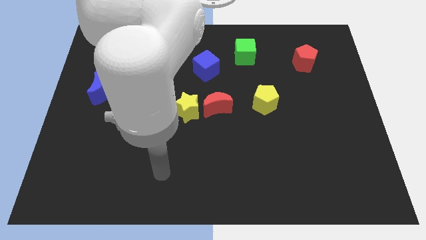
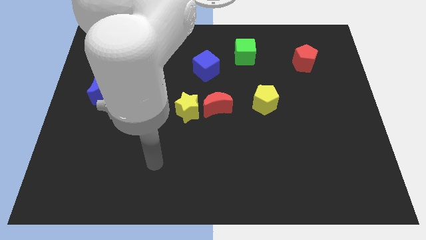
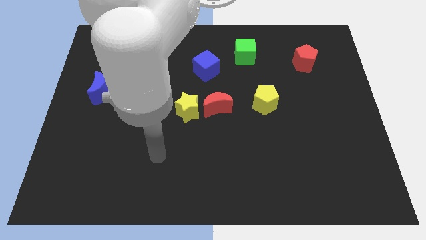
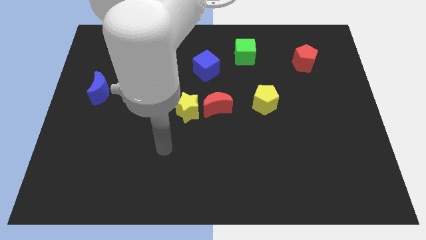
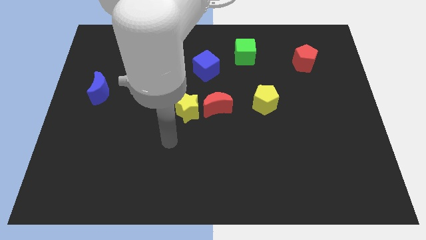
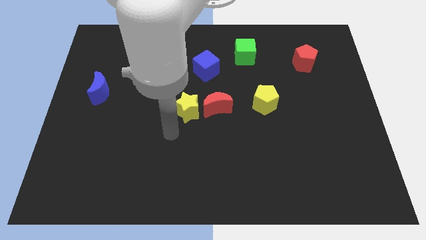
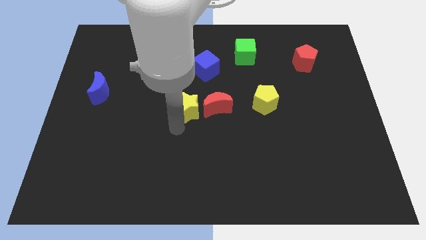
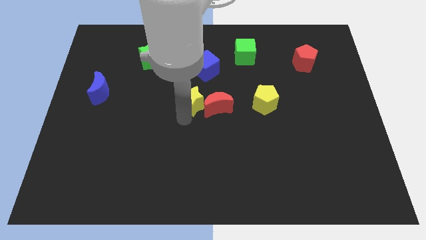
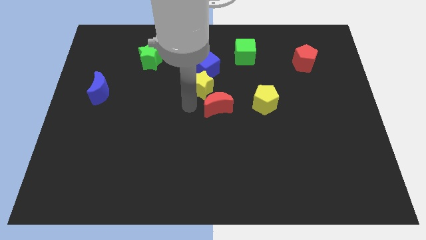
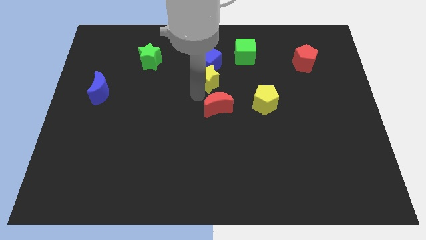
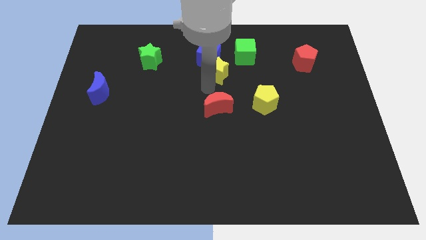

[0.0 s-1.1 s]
move the red moon away from the yellow star

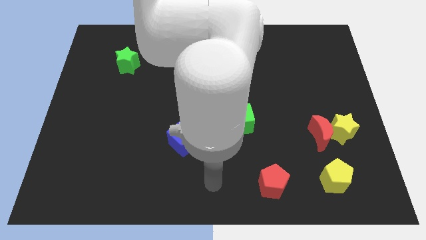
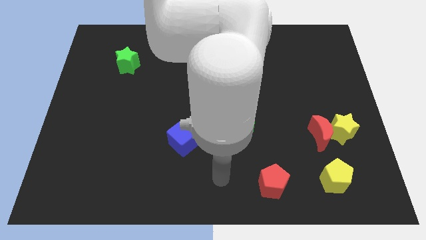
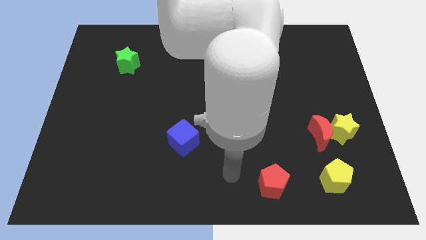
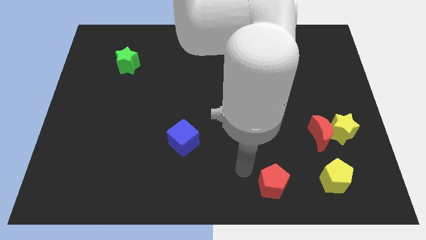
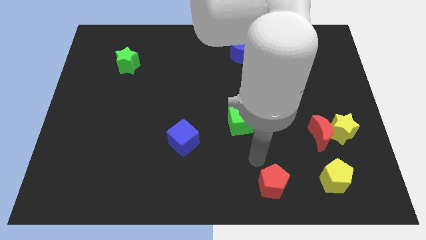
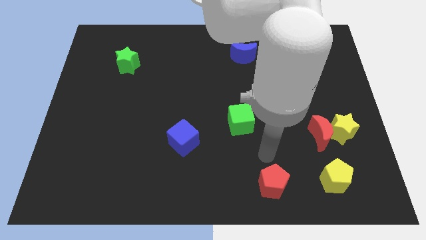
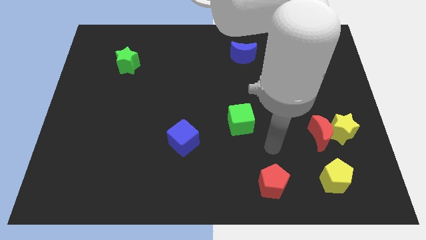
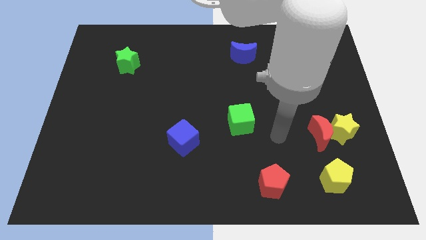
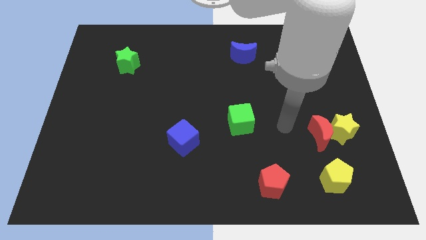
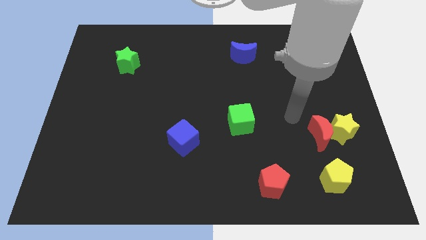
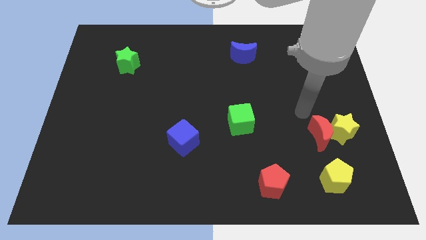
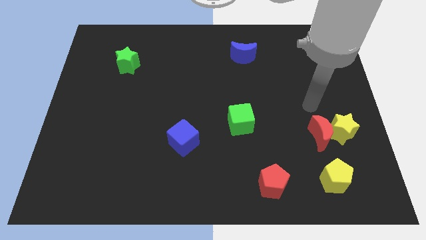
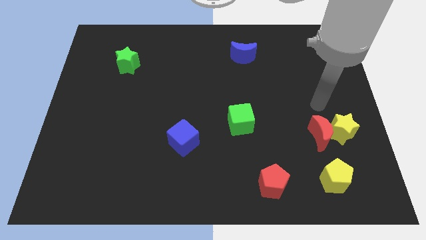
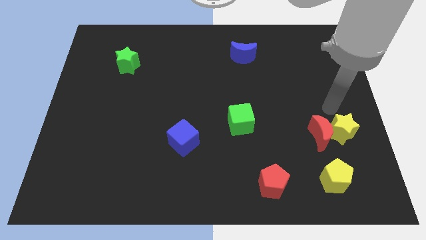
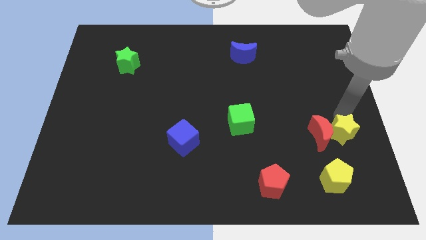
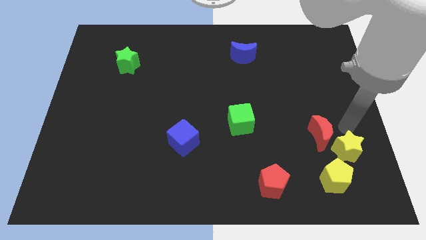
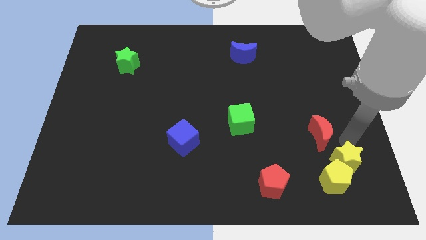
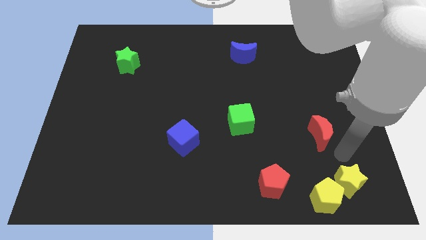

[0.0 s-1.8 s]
pull the red moon apart from the yellow star

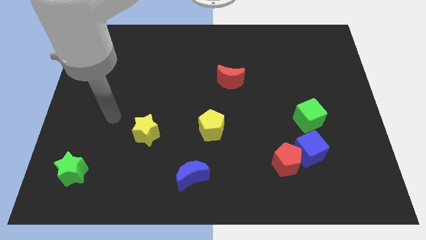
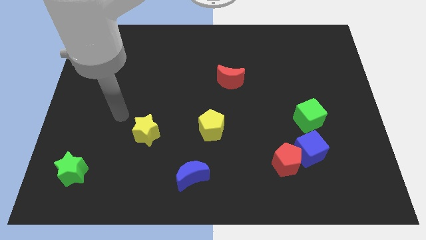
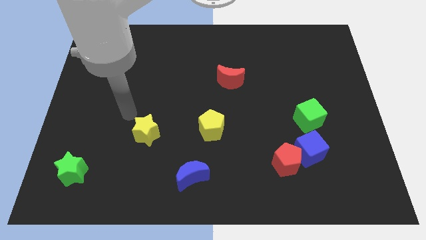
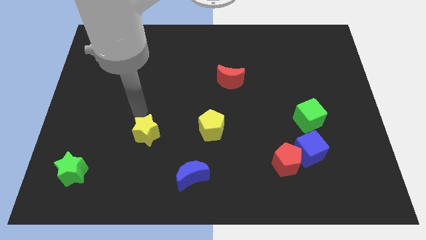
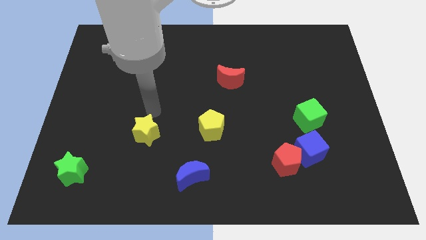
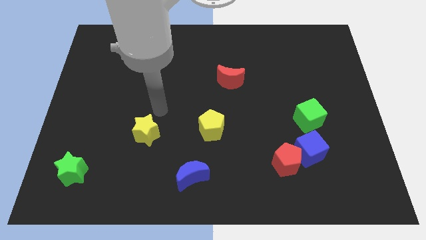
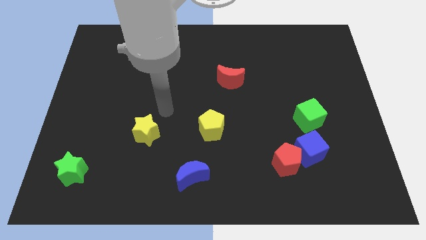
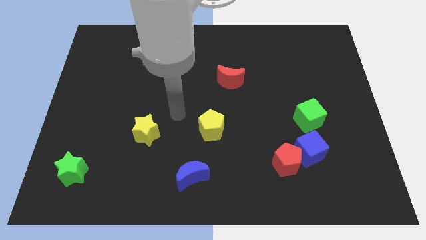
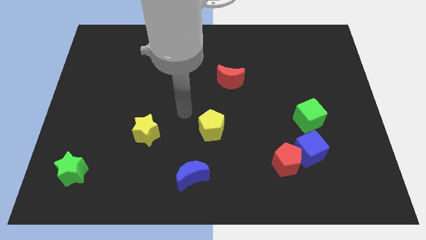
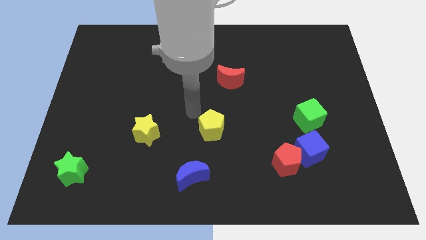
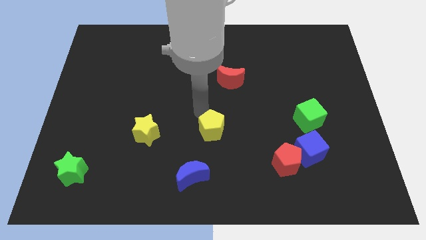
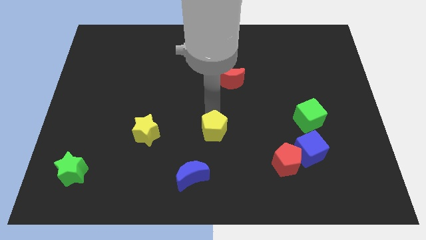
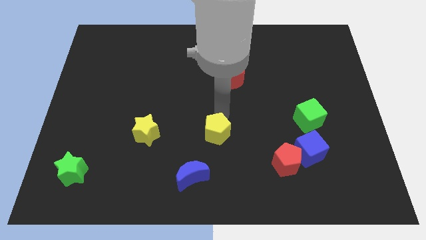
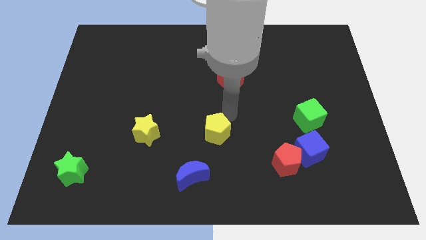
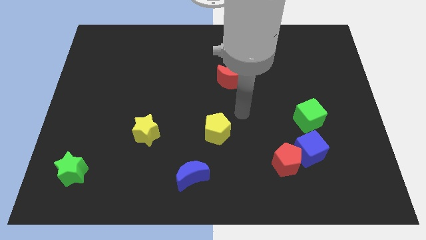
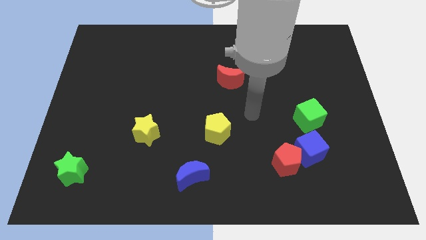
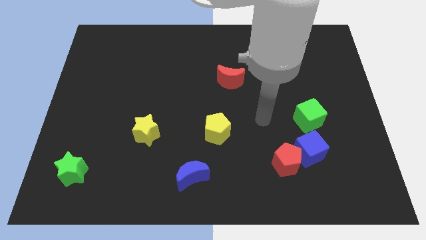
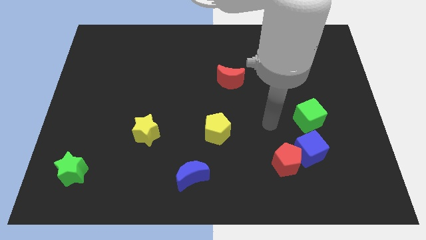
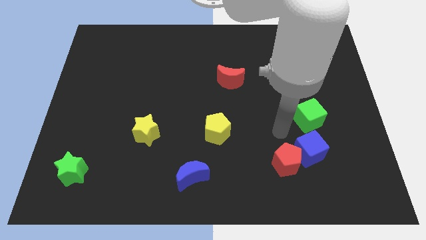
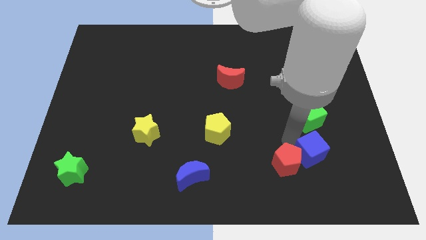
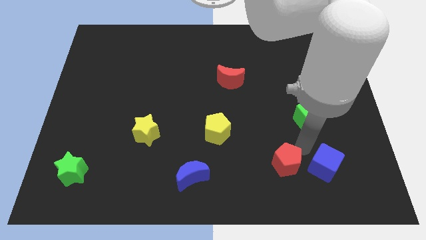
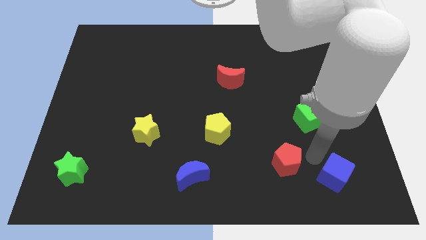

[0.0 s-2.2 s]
separate the red pentagon from the blue cube

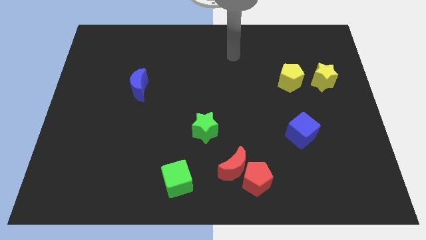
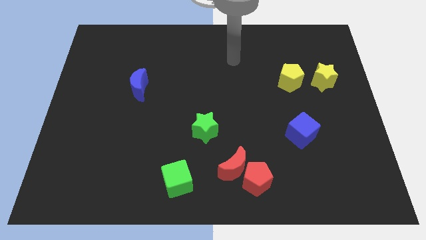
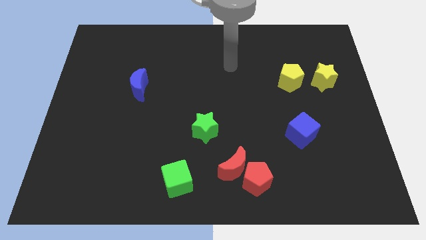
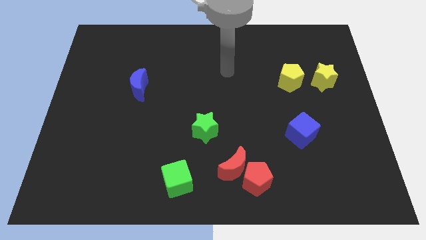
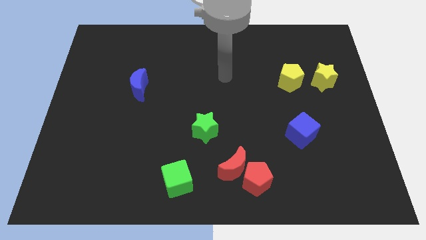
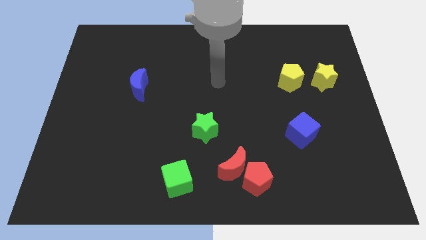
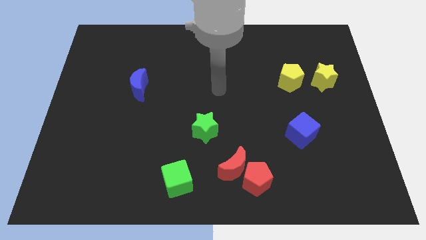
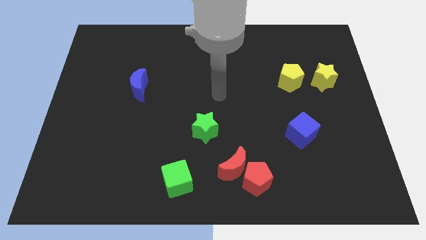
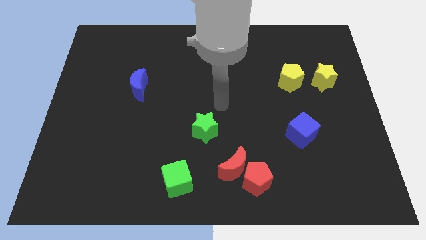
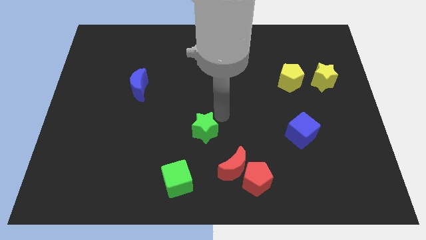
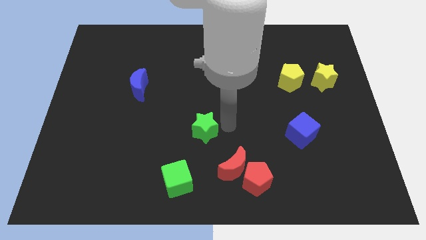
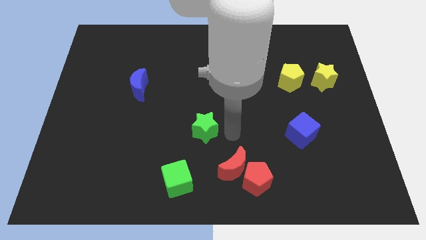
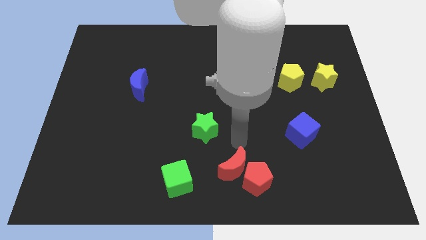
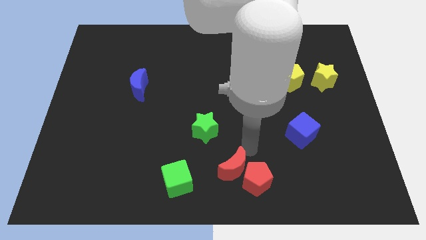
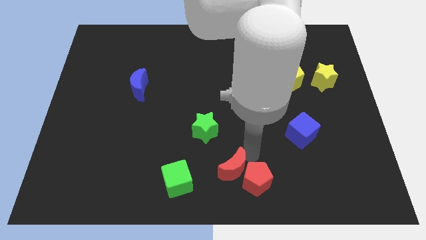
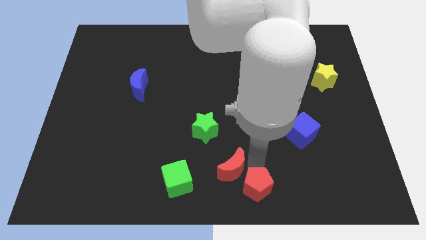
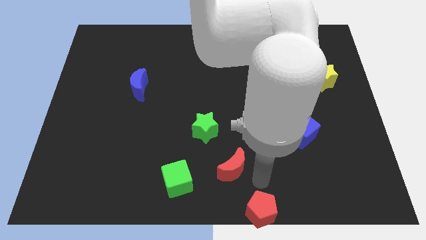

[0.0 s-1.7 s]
pull the red moon apart from the red pentagon

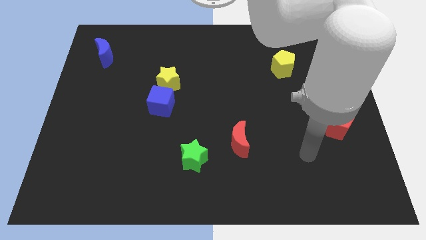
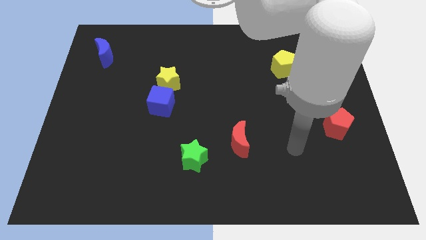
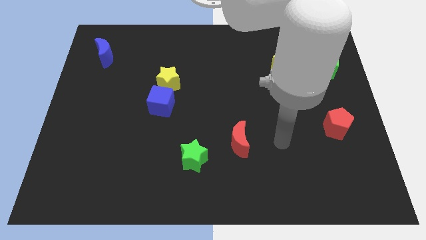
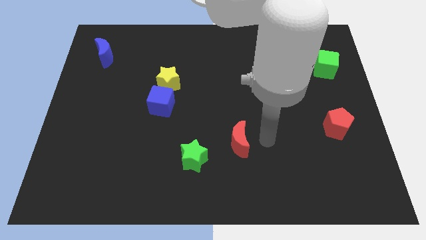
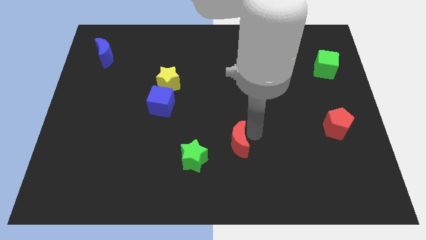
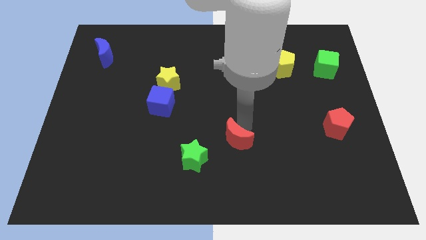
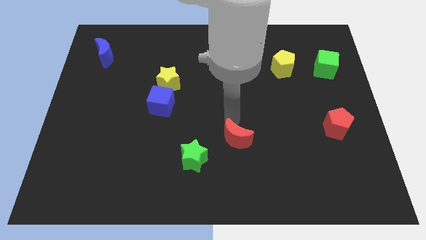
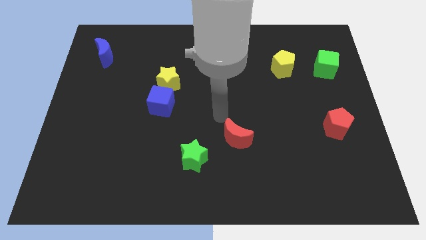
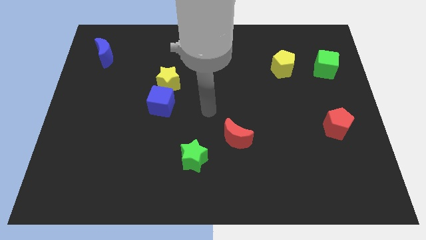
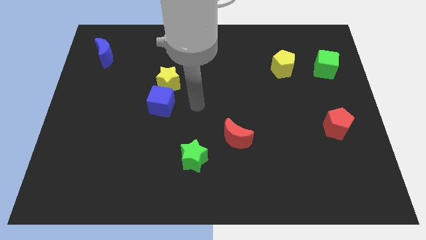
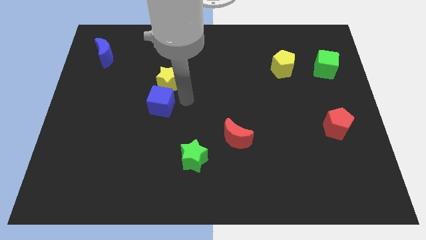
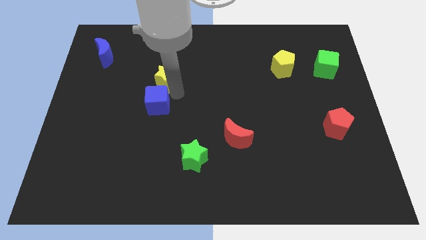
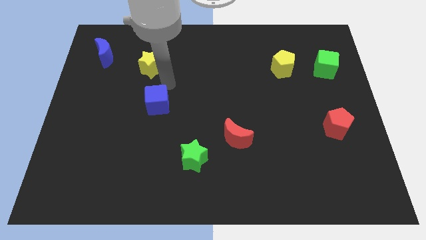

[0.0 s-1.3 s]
move the blue cube away from the yellow star

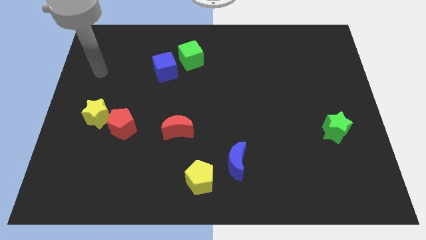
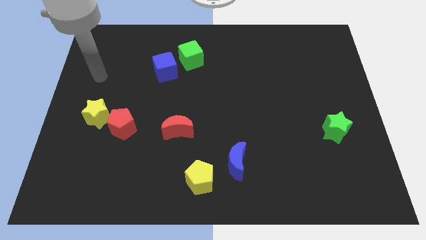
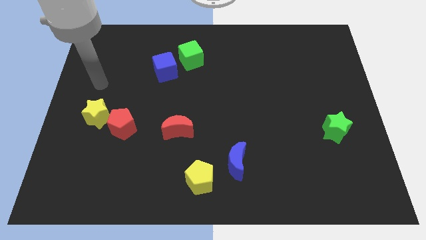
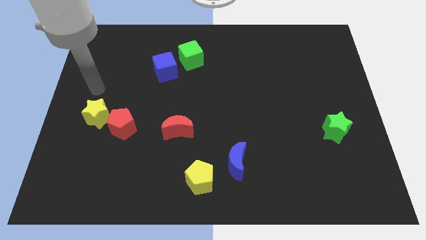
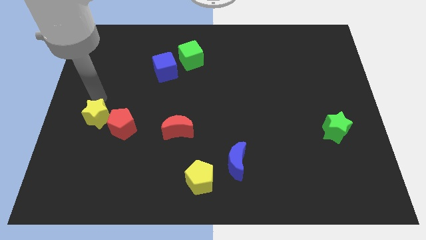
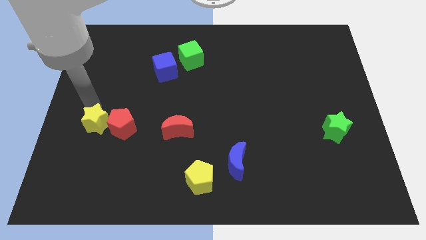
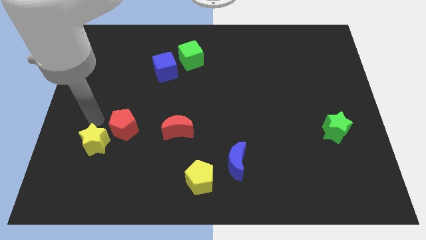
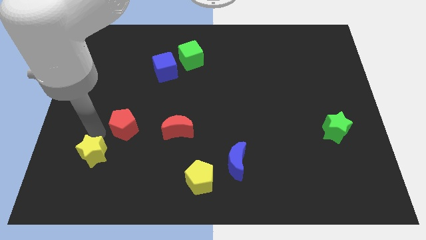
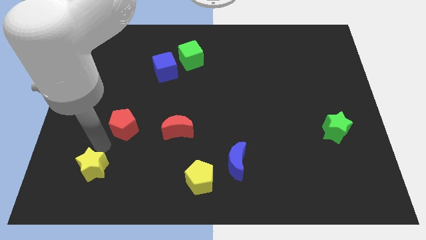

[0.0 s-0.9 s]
move the red pentagon away from the yellow star

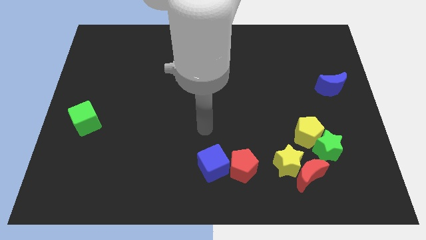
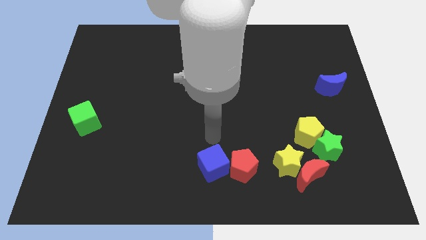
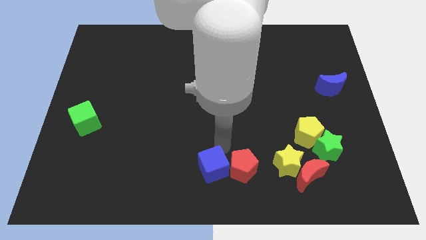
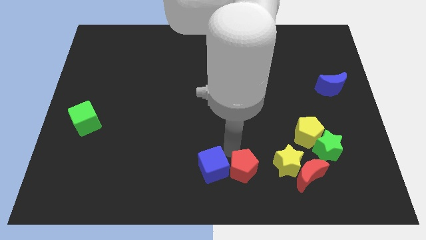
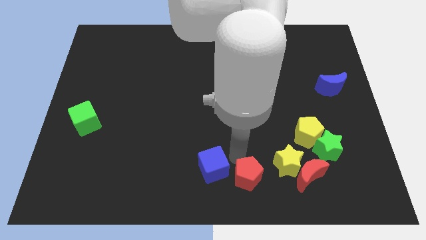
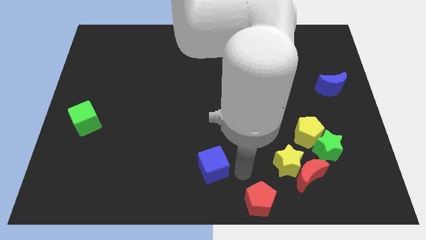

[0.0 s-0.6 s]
move the blue cube away from the red pentagon
